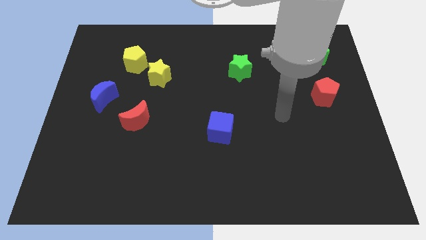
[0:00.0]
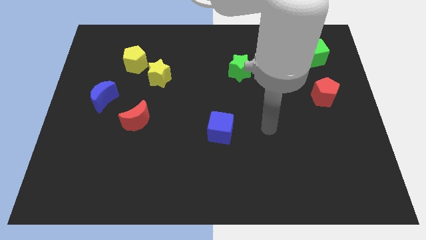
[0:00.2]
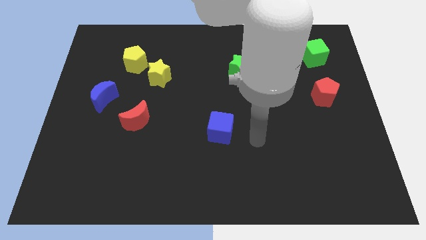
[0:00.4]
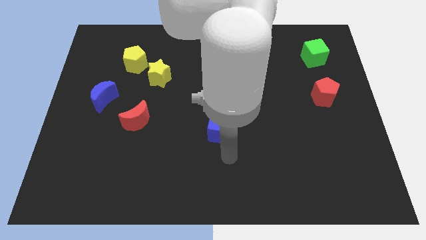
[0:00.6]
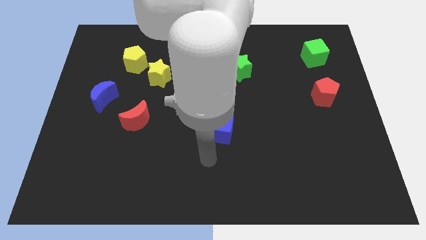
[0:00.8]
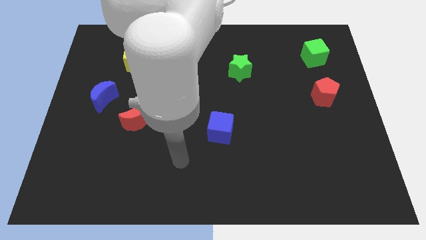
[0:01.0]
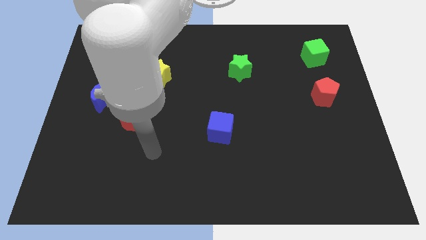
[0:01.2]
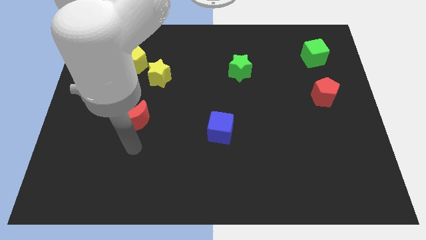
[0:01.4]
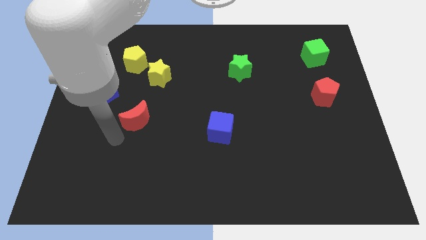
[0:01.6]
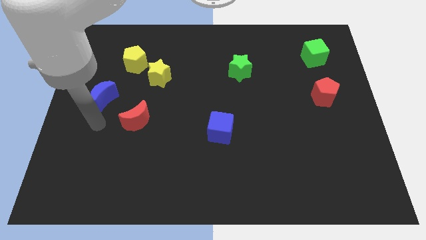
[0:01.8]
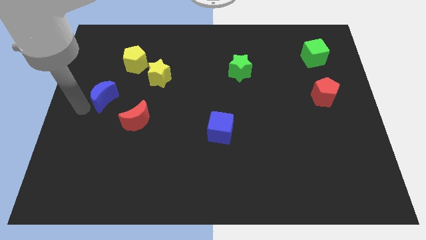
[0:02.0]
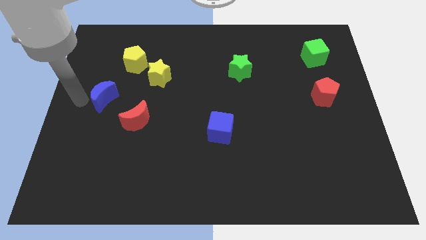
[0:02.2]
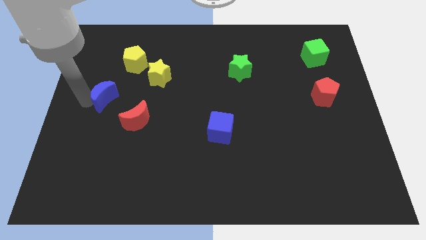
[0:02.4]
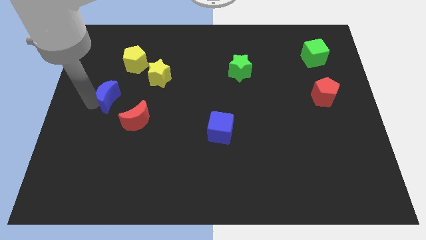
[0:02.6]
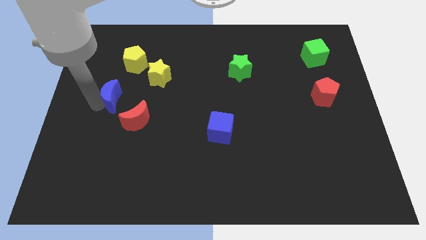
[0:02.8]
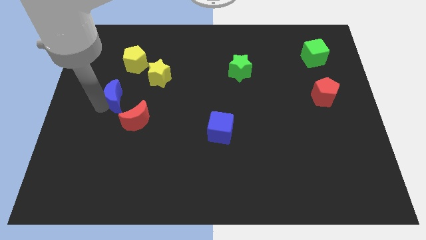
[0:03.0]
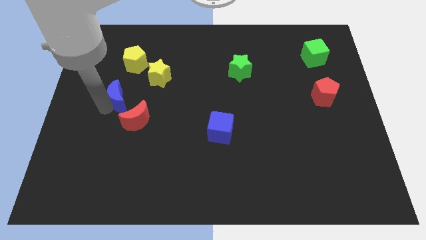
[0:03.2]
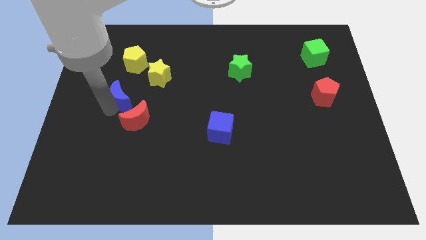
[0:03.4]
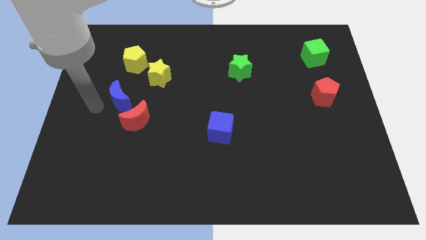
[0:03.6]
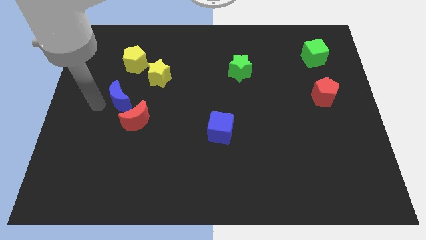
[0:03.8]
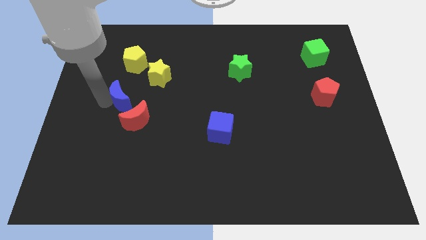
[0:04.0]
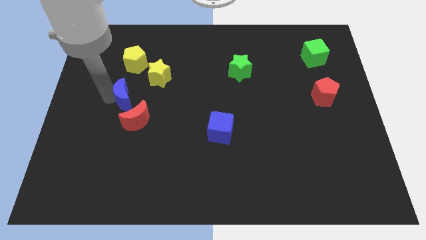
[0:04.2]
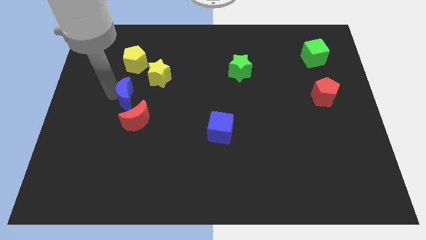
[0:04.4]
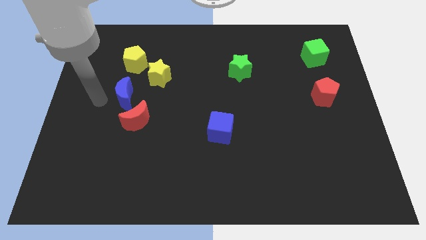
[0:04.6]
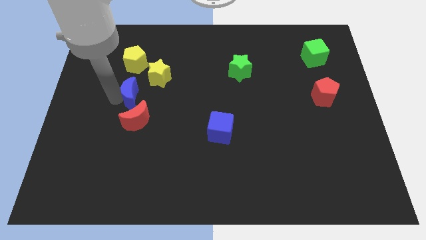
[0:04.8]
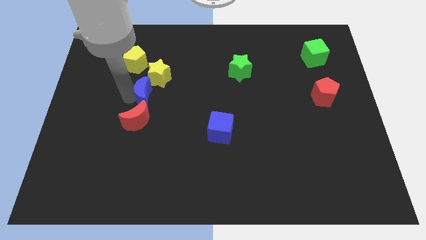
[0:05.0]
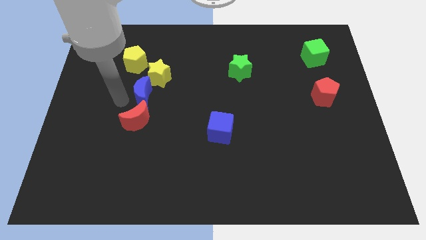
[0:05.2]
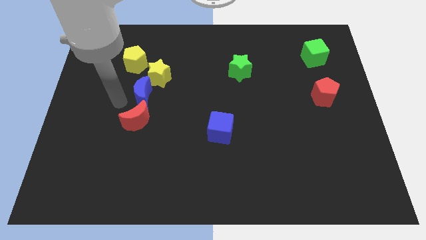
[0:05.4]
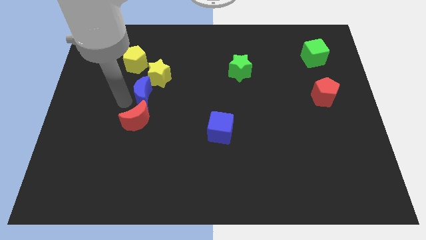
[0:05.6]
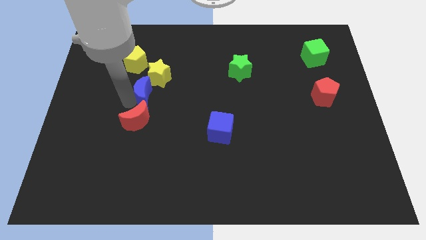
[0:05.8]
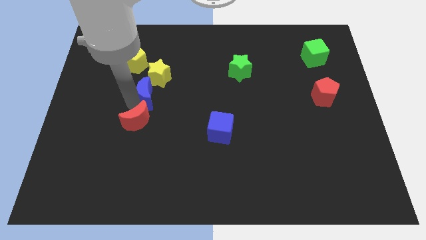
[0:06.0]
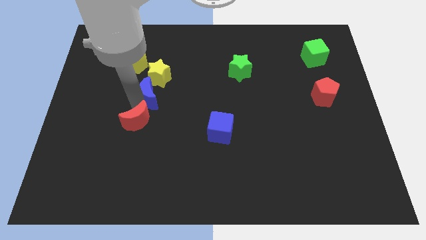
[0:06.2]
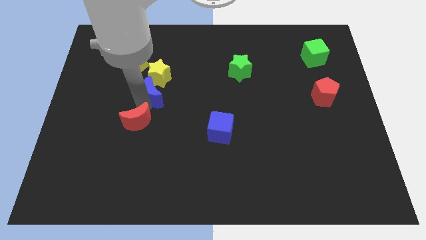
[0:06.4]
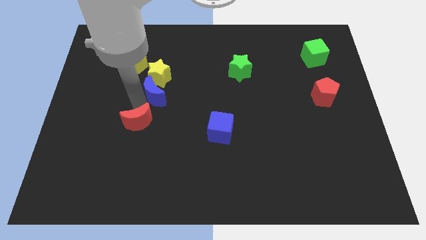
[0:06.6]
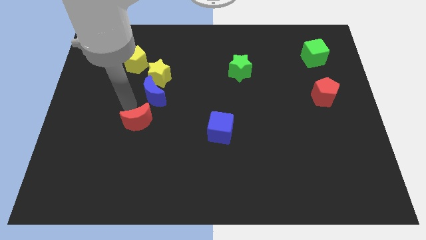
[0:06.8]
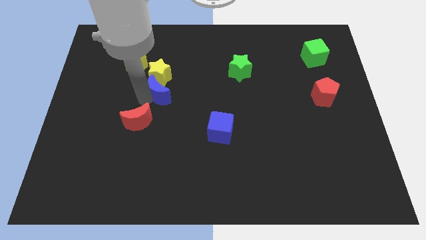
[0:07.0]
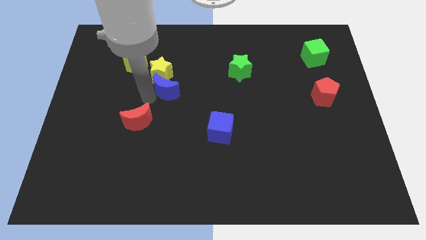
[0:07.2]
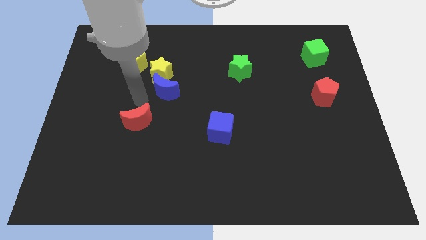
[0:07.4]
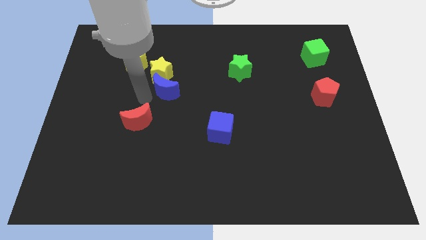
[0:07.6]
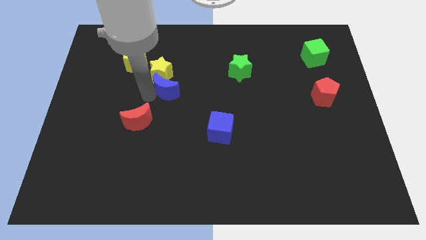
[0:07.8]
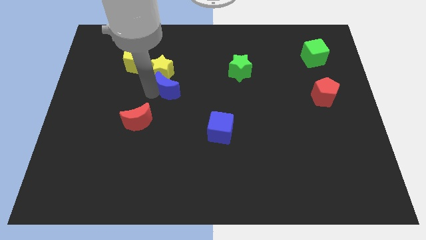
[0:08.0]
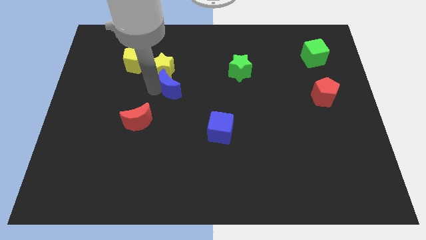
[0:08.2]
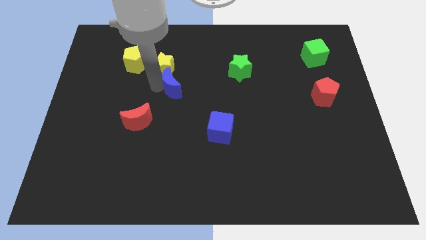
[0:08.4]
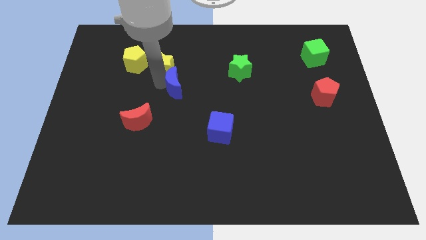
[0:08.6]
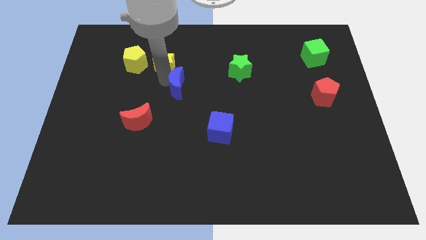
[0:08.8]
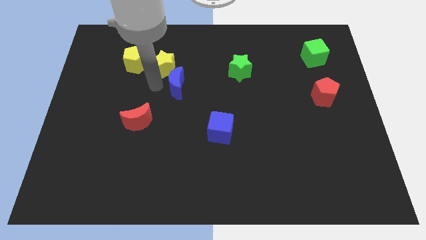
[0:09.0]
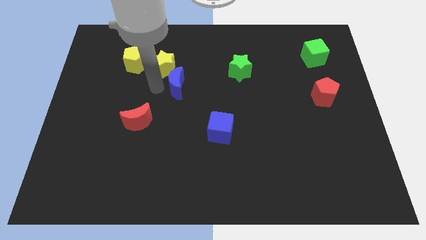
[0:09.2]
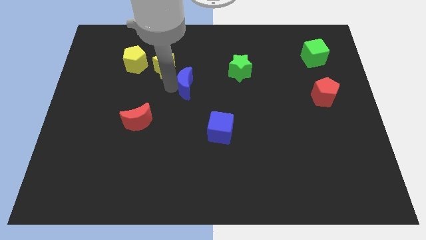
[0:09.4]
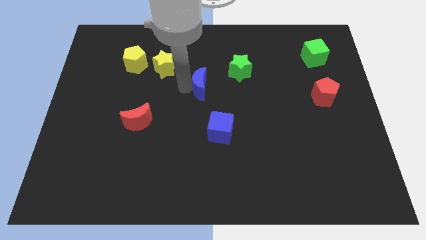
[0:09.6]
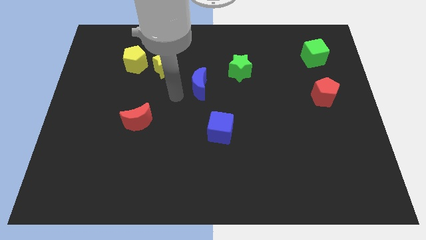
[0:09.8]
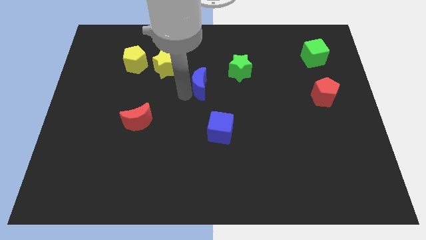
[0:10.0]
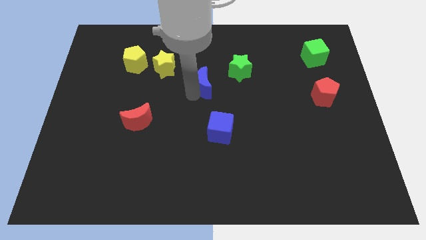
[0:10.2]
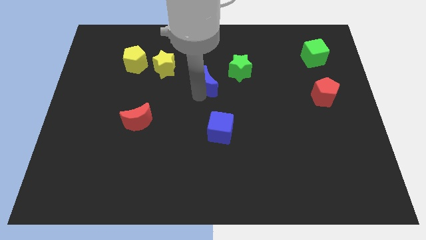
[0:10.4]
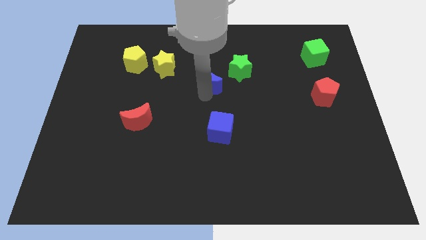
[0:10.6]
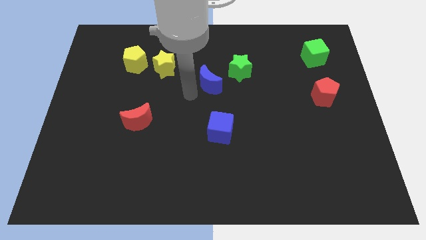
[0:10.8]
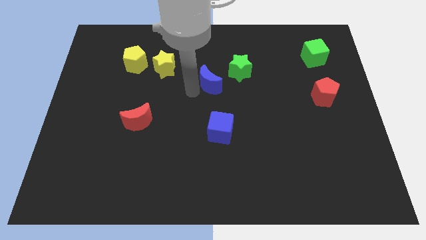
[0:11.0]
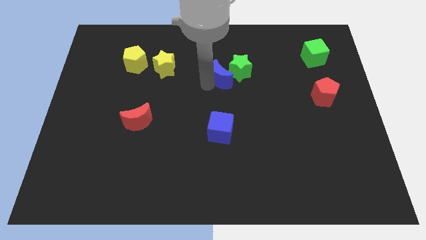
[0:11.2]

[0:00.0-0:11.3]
move the blue moon close to the green star

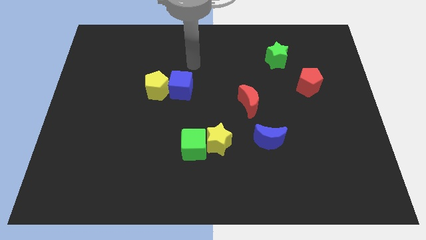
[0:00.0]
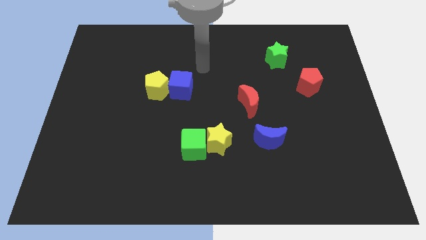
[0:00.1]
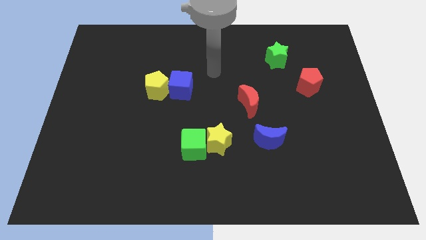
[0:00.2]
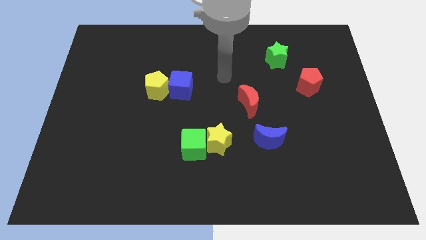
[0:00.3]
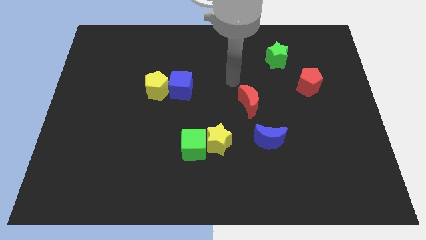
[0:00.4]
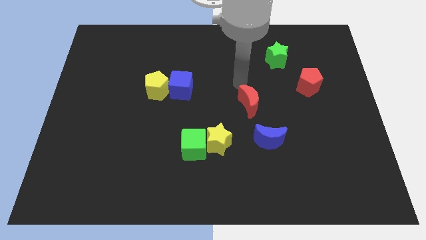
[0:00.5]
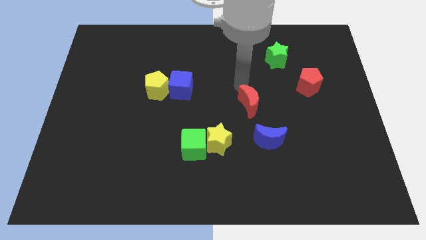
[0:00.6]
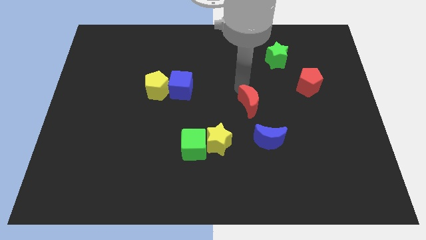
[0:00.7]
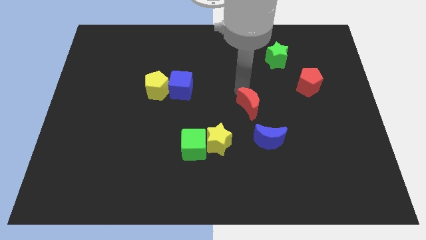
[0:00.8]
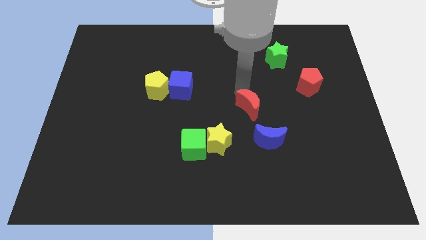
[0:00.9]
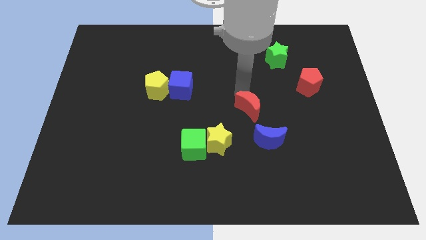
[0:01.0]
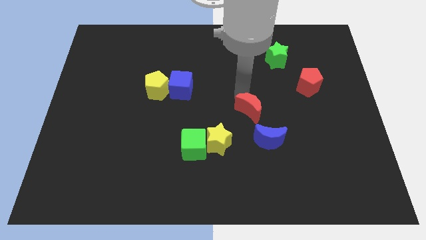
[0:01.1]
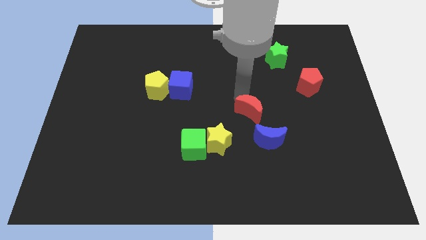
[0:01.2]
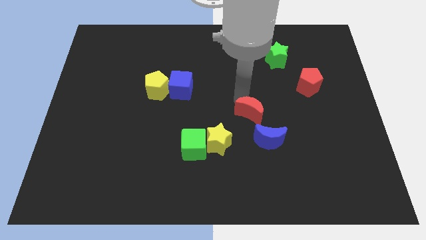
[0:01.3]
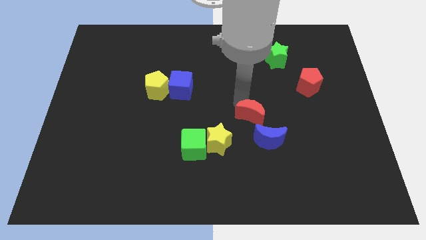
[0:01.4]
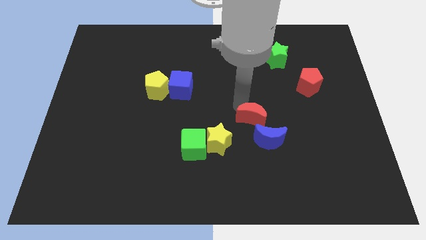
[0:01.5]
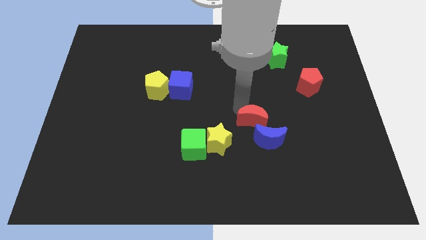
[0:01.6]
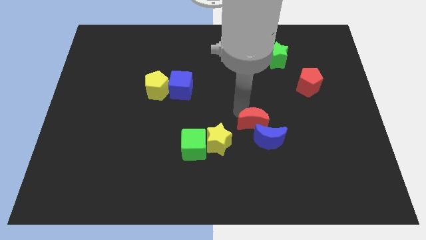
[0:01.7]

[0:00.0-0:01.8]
put the red moon next to the blue moon
